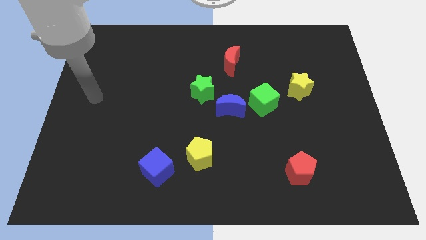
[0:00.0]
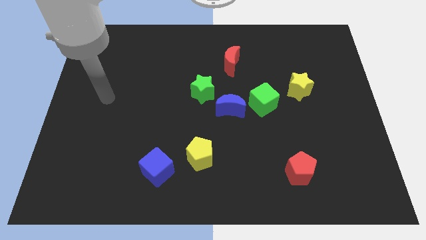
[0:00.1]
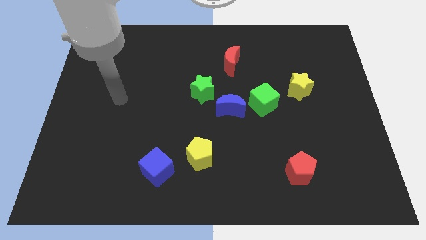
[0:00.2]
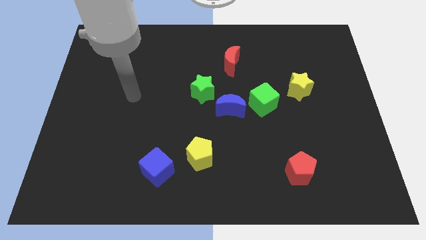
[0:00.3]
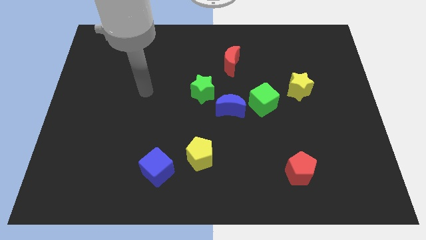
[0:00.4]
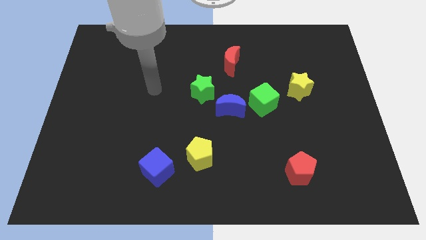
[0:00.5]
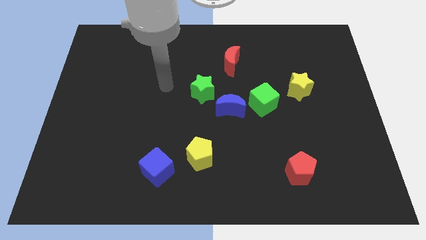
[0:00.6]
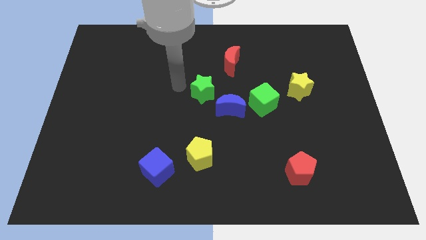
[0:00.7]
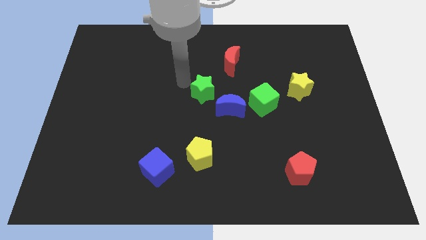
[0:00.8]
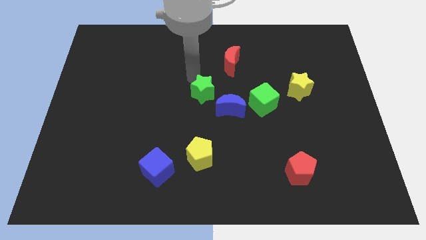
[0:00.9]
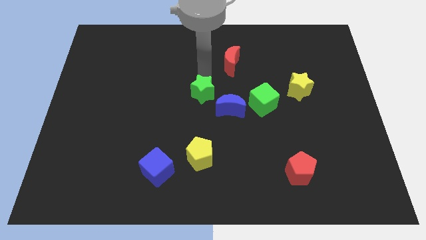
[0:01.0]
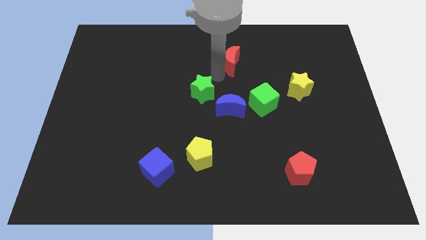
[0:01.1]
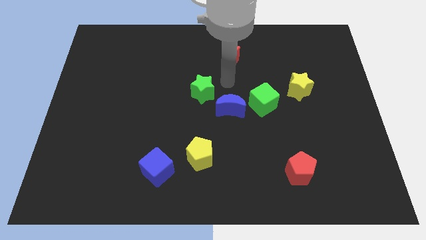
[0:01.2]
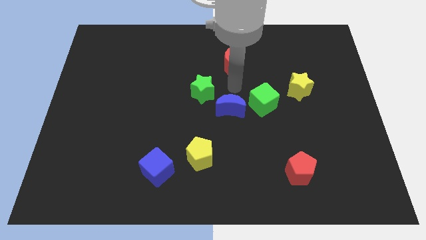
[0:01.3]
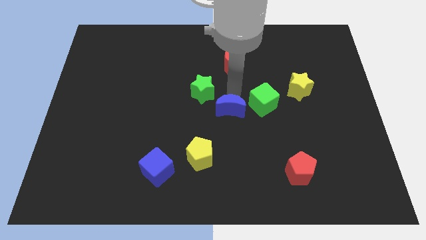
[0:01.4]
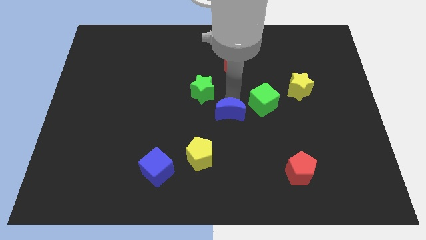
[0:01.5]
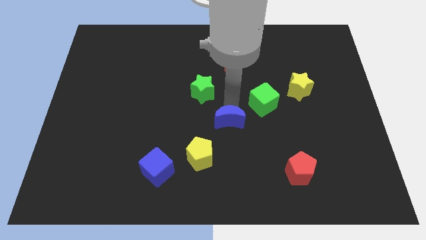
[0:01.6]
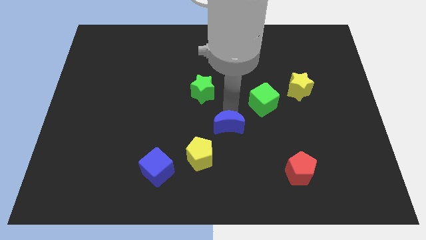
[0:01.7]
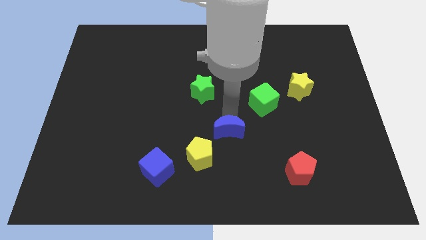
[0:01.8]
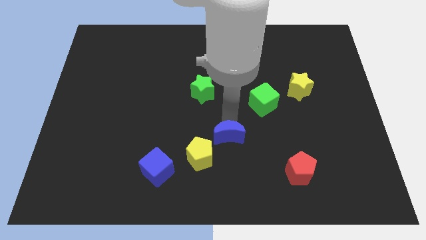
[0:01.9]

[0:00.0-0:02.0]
pull the blue moon apart from the green cube and green star

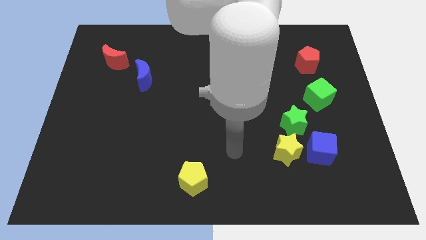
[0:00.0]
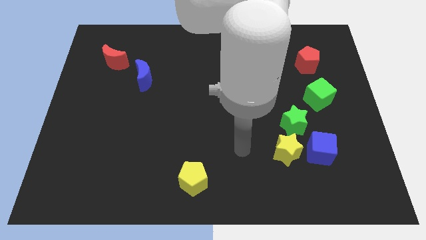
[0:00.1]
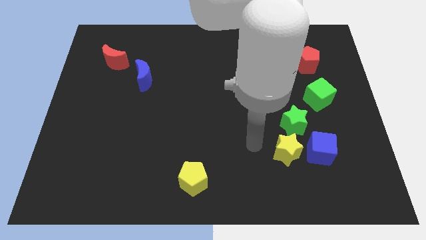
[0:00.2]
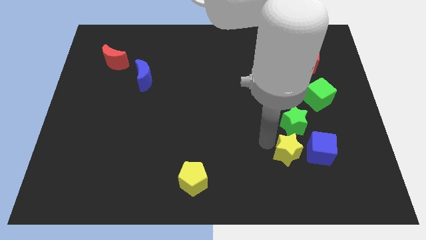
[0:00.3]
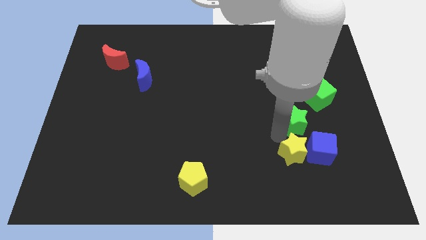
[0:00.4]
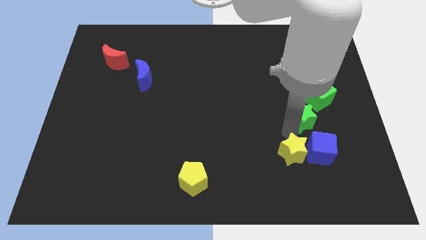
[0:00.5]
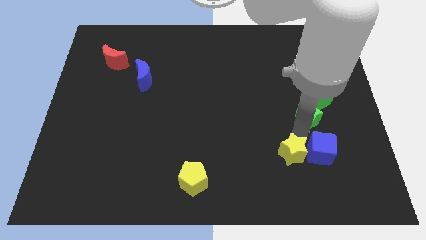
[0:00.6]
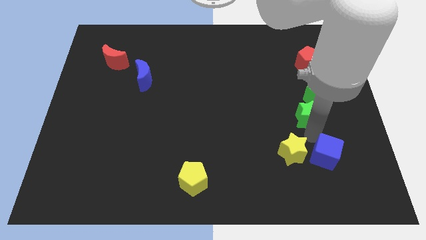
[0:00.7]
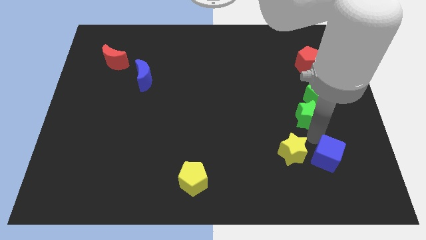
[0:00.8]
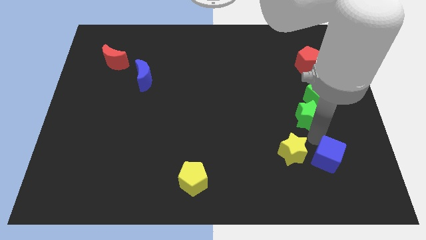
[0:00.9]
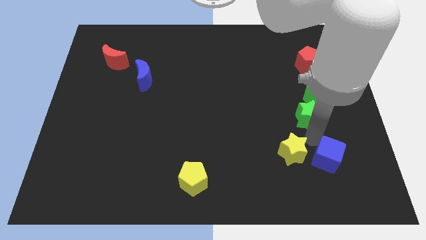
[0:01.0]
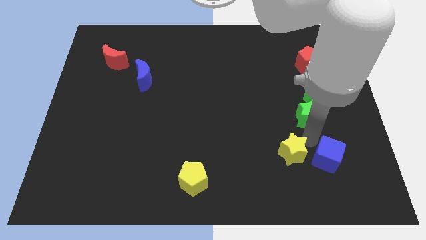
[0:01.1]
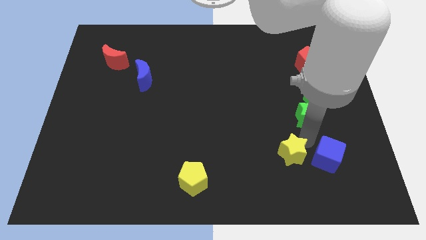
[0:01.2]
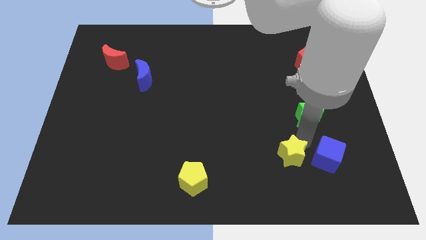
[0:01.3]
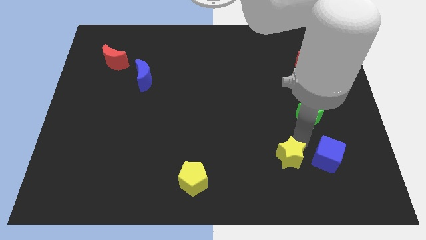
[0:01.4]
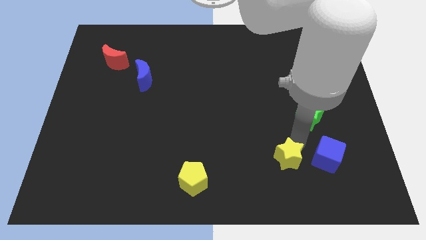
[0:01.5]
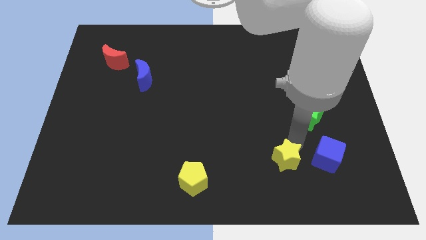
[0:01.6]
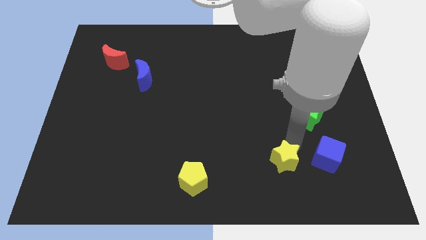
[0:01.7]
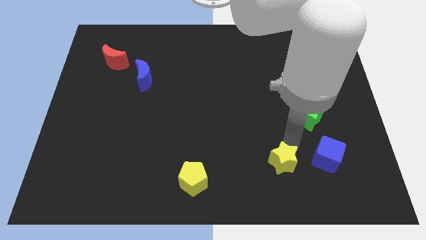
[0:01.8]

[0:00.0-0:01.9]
separate the yellow star from the blue cube and green star

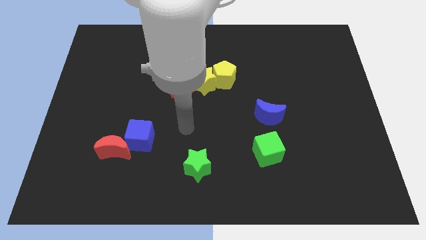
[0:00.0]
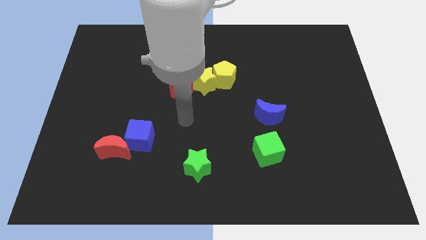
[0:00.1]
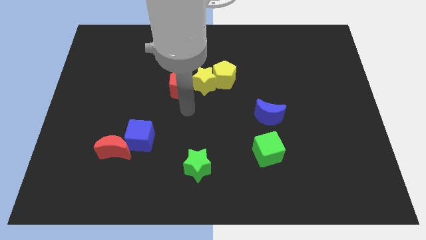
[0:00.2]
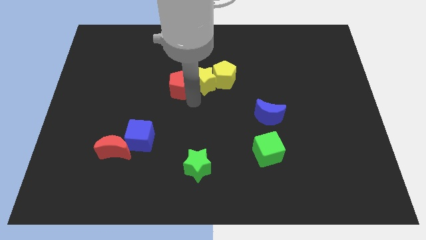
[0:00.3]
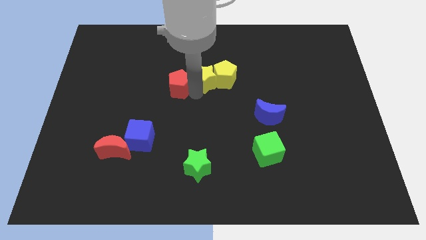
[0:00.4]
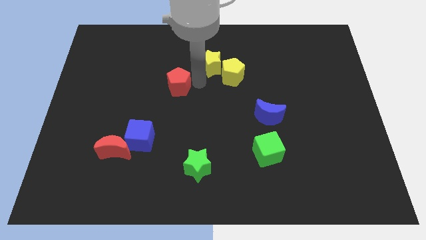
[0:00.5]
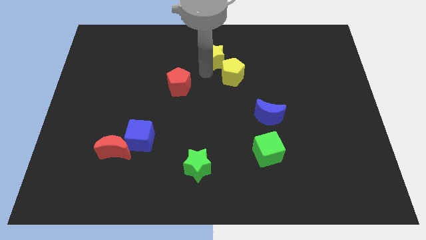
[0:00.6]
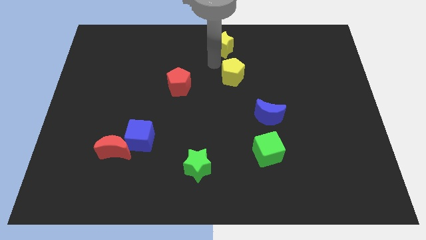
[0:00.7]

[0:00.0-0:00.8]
move the yellow pentagon away from the yellow star

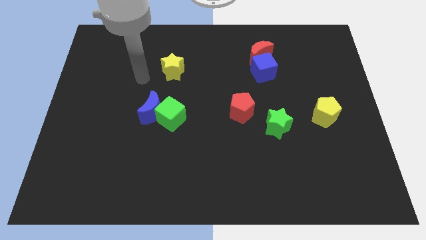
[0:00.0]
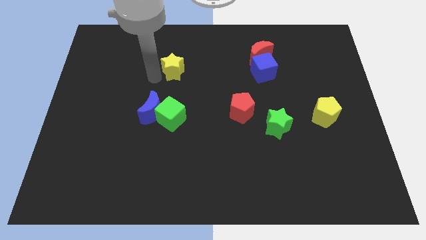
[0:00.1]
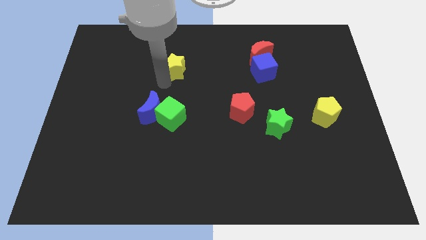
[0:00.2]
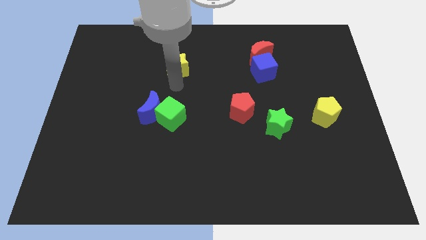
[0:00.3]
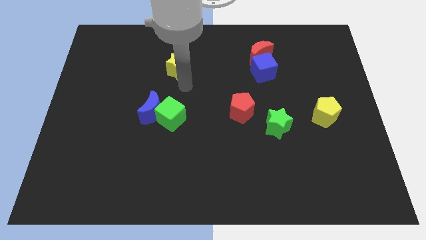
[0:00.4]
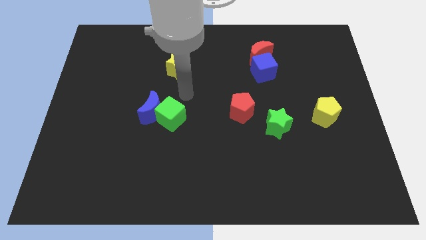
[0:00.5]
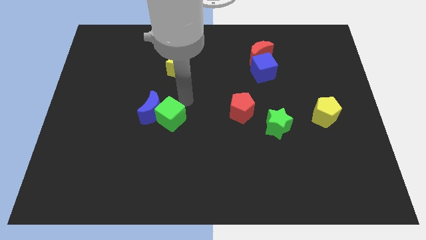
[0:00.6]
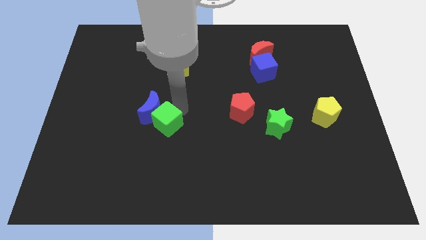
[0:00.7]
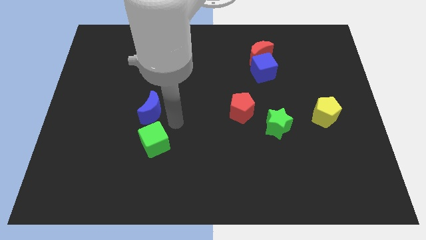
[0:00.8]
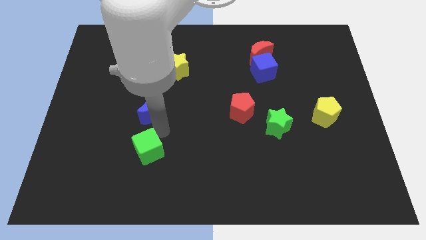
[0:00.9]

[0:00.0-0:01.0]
move the blue moon away from the green cube

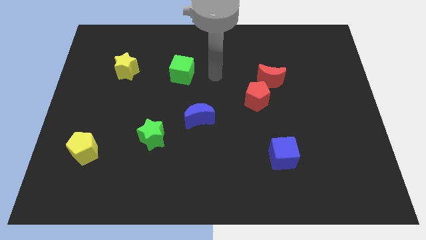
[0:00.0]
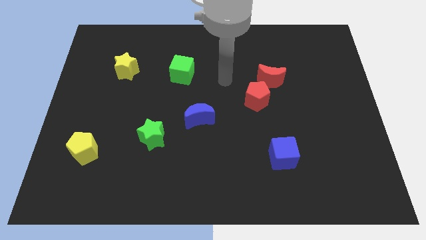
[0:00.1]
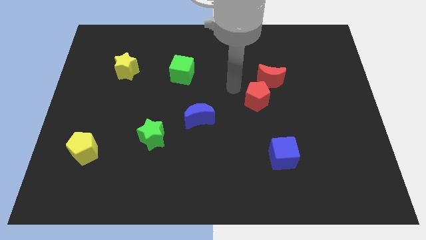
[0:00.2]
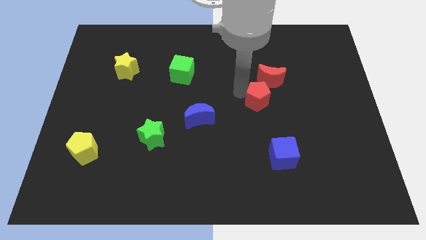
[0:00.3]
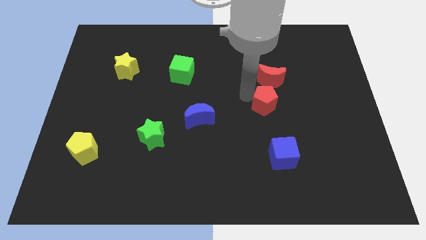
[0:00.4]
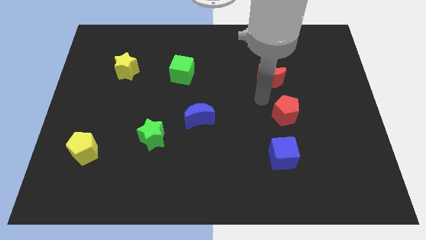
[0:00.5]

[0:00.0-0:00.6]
move the red moon away from the red pentagon

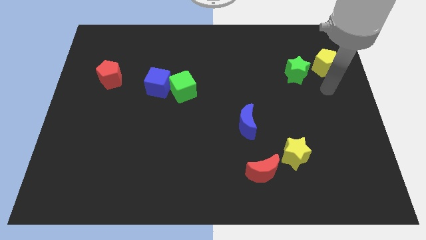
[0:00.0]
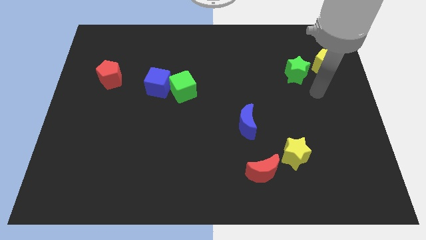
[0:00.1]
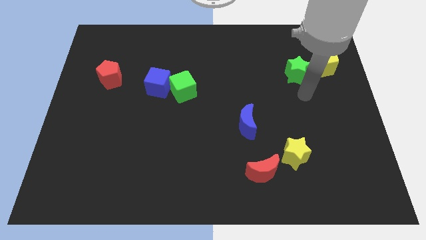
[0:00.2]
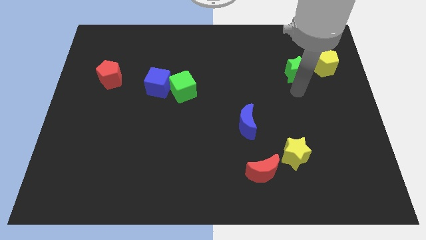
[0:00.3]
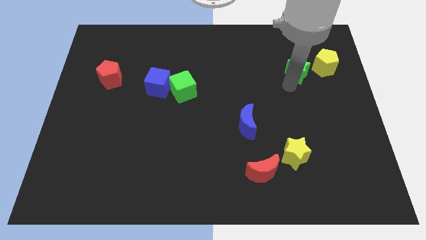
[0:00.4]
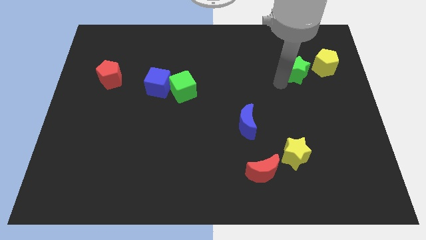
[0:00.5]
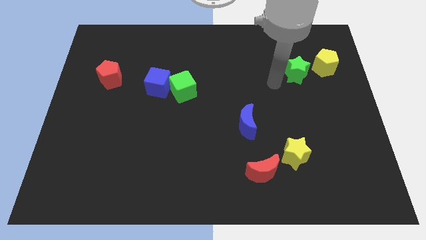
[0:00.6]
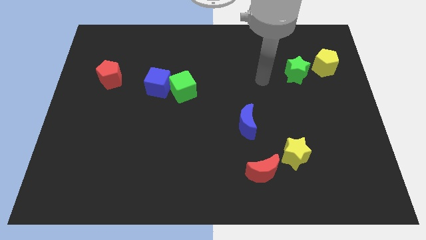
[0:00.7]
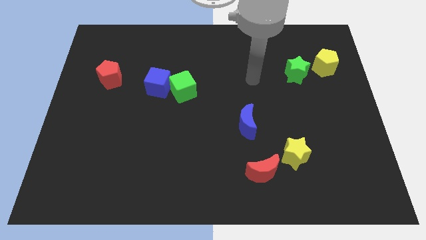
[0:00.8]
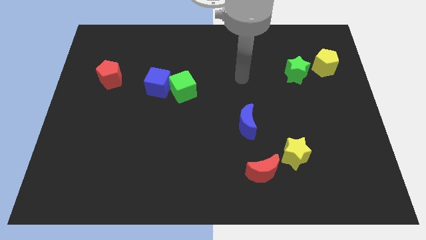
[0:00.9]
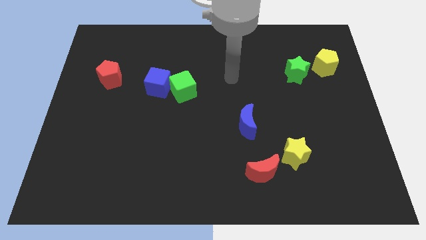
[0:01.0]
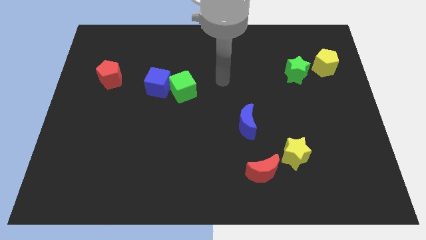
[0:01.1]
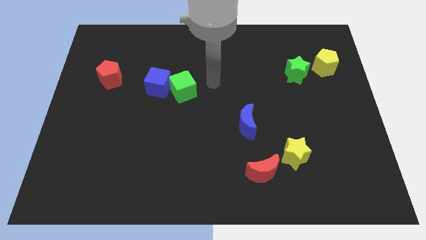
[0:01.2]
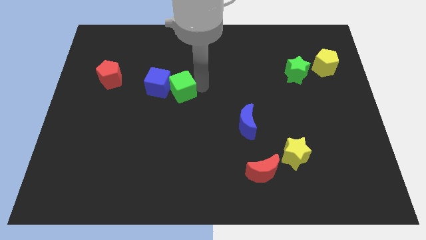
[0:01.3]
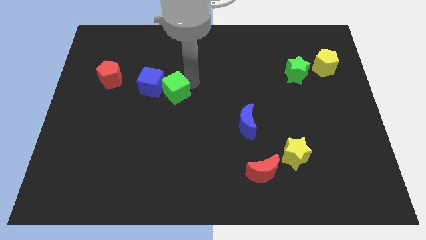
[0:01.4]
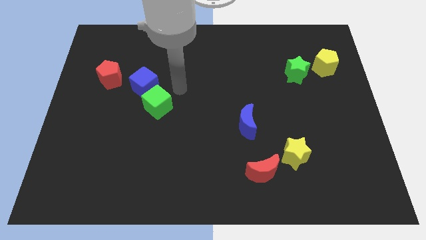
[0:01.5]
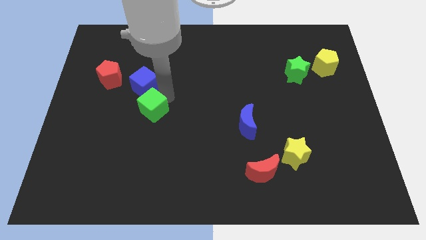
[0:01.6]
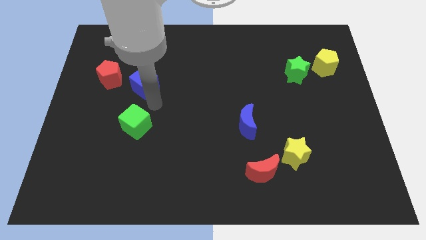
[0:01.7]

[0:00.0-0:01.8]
move the blue cube away from the green cube

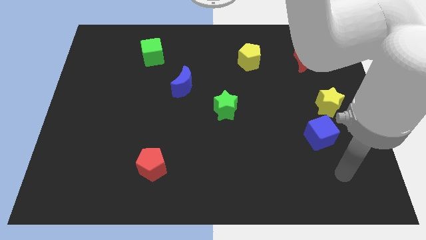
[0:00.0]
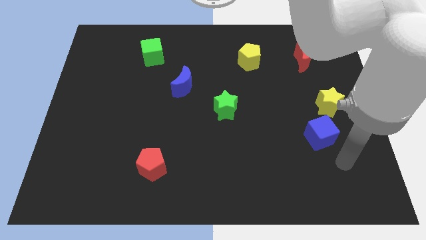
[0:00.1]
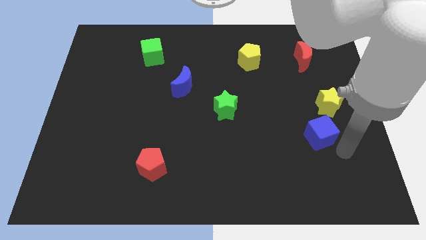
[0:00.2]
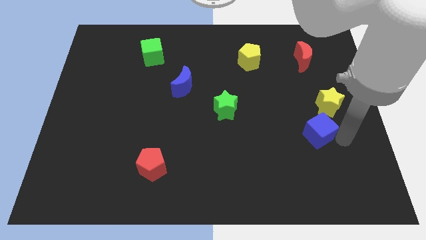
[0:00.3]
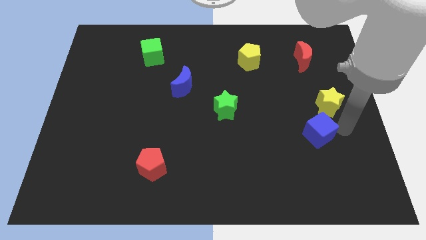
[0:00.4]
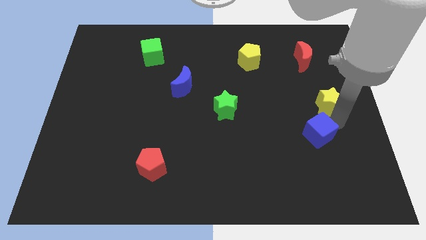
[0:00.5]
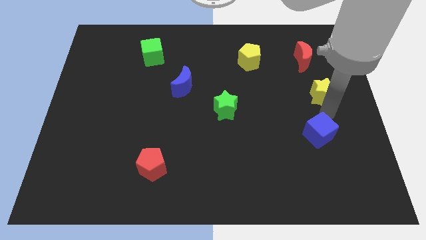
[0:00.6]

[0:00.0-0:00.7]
pull the blue cube apart from the yellow star

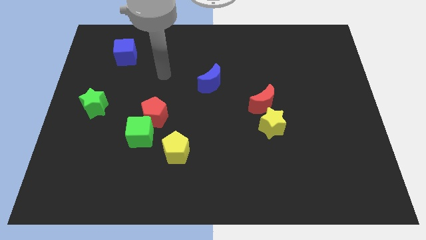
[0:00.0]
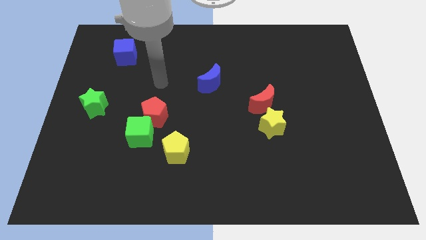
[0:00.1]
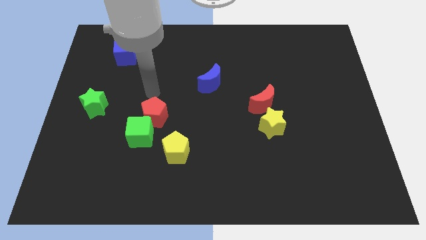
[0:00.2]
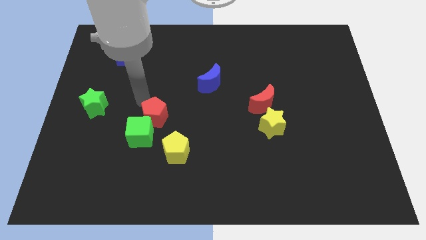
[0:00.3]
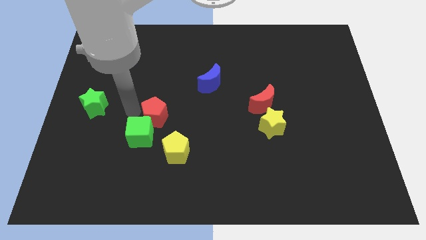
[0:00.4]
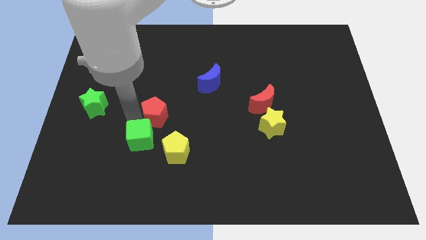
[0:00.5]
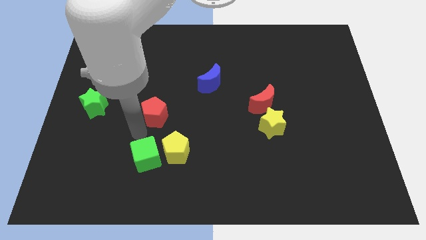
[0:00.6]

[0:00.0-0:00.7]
separate the red pentagon from the green cube
